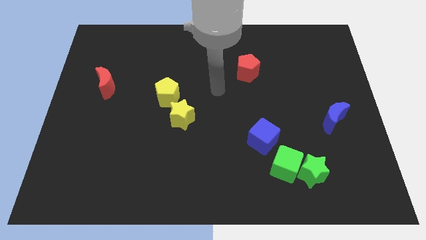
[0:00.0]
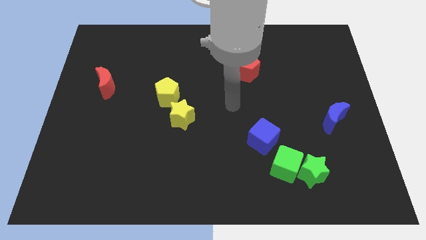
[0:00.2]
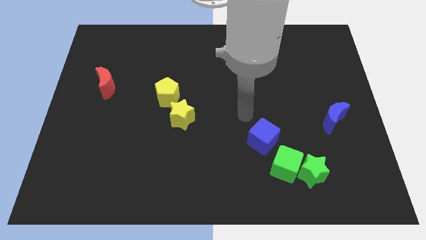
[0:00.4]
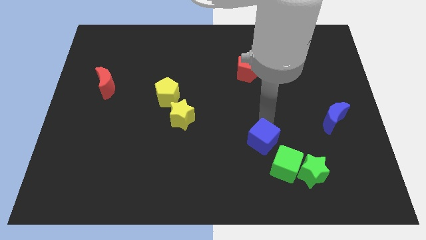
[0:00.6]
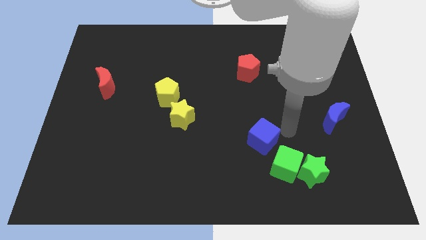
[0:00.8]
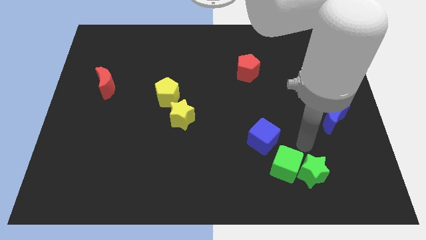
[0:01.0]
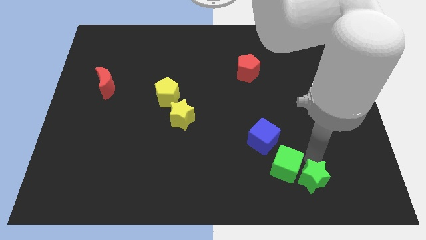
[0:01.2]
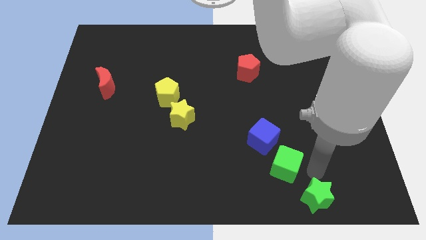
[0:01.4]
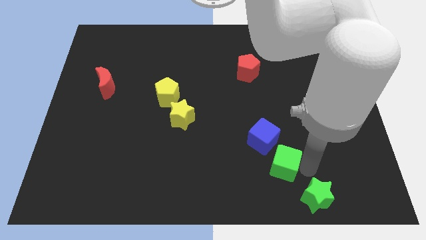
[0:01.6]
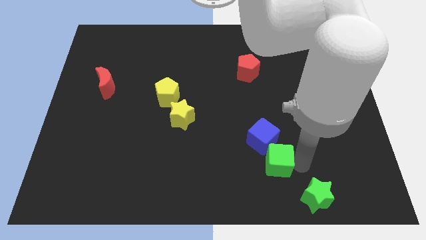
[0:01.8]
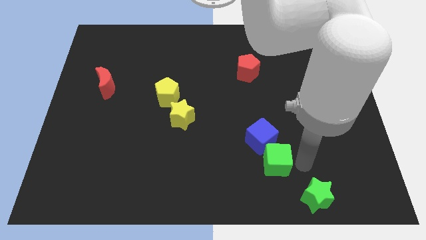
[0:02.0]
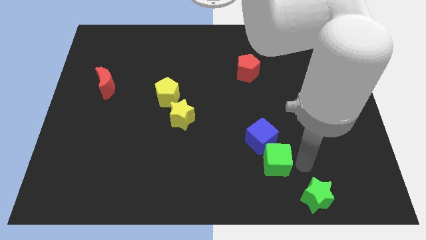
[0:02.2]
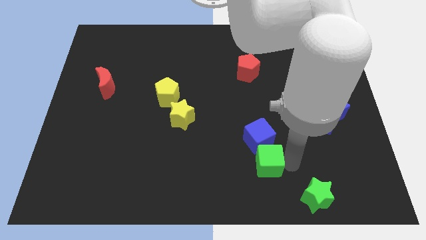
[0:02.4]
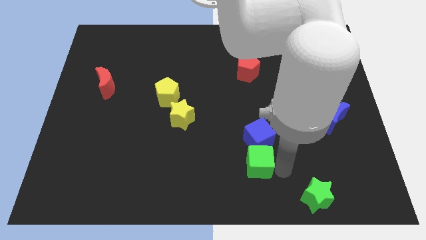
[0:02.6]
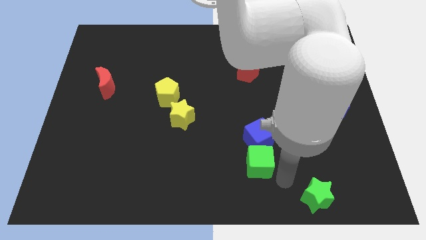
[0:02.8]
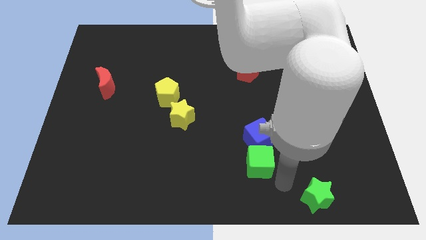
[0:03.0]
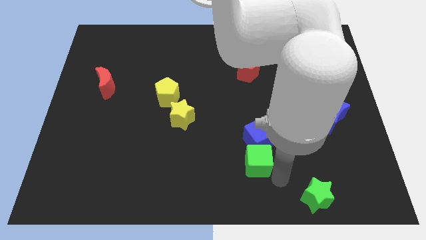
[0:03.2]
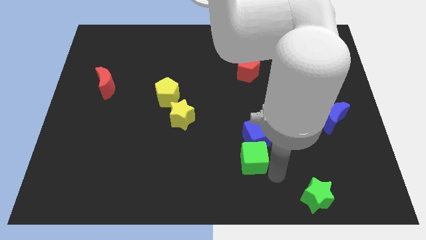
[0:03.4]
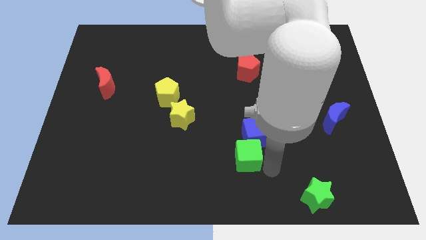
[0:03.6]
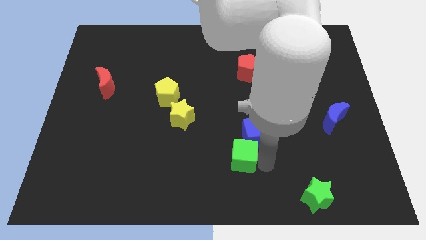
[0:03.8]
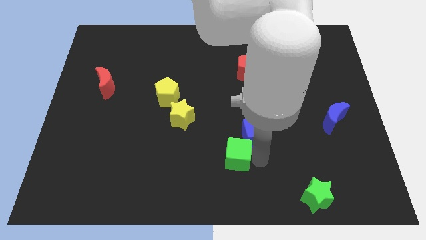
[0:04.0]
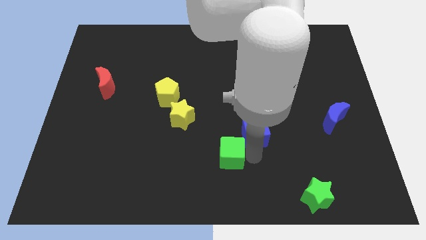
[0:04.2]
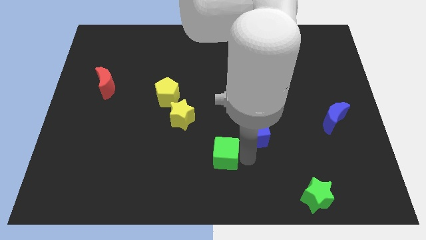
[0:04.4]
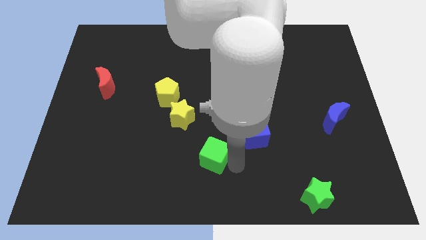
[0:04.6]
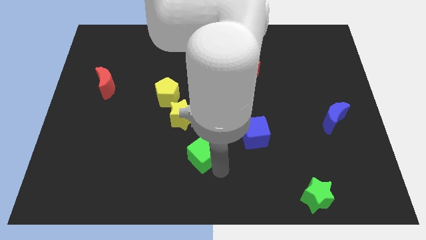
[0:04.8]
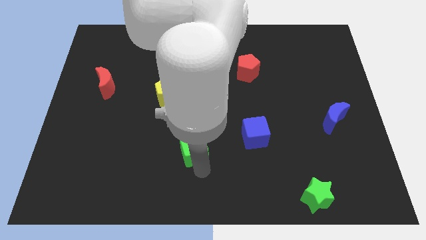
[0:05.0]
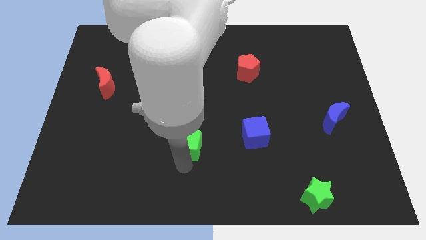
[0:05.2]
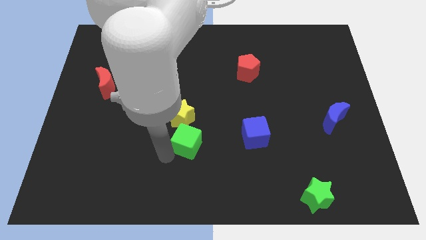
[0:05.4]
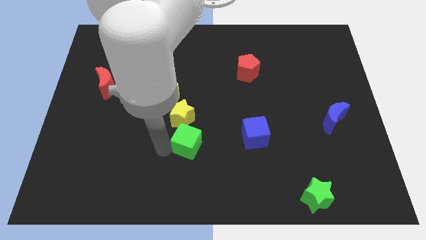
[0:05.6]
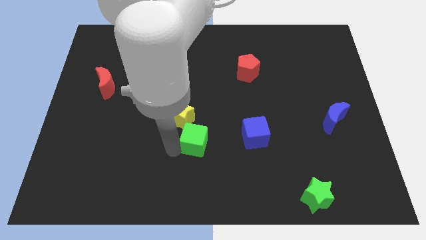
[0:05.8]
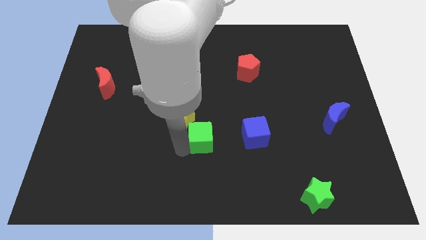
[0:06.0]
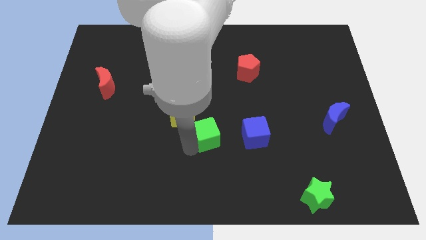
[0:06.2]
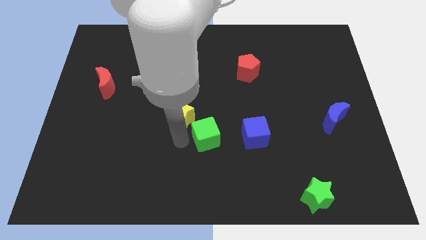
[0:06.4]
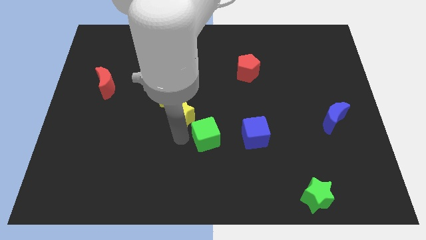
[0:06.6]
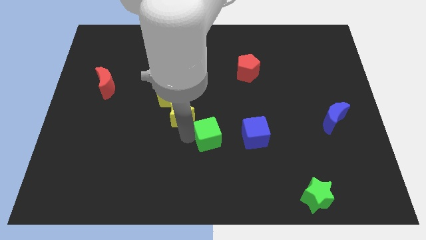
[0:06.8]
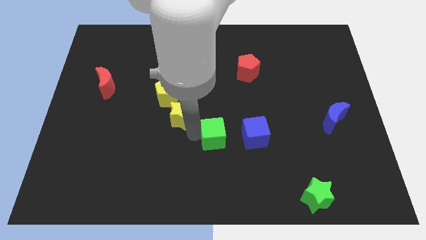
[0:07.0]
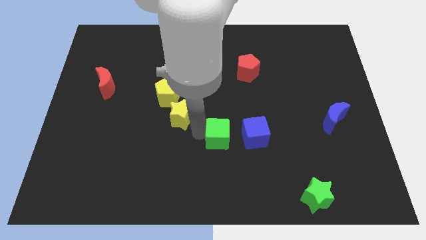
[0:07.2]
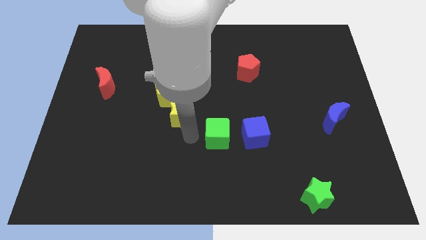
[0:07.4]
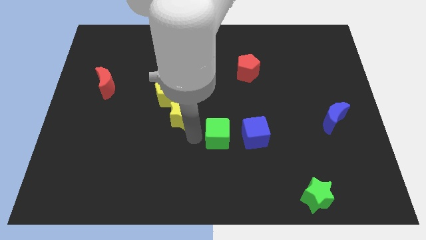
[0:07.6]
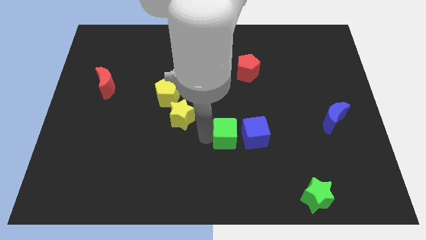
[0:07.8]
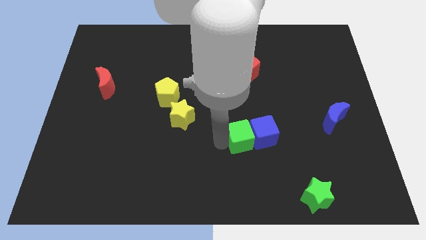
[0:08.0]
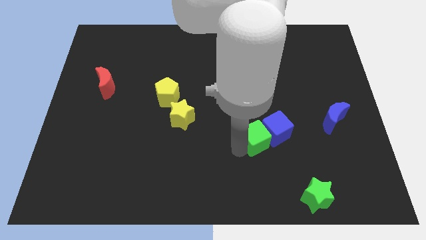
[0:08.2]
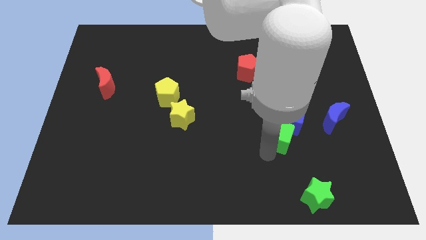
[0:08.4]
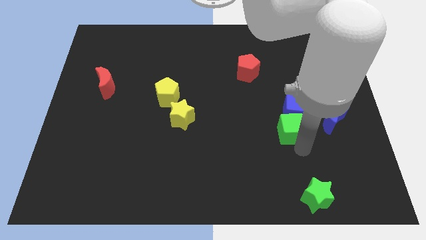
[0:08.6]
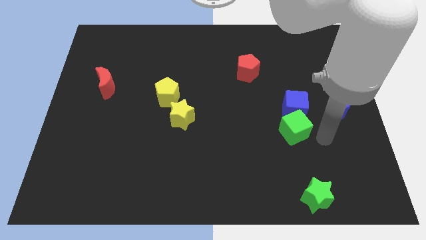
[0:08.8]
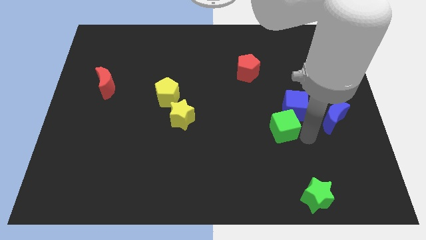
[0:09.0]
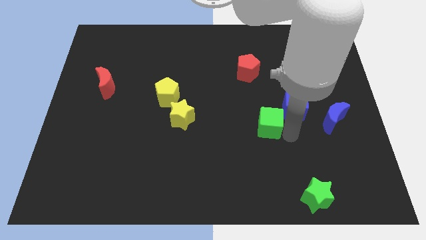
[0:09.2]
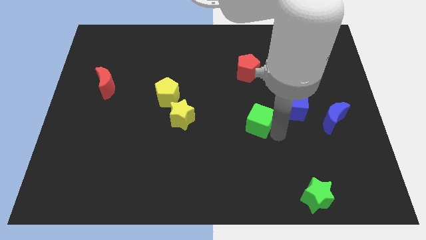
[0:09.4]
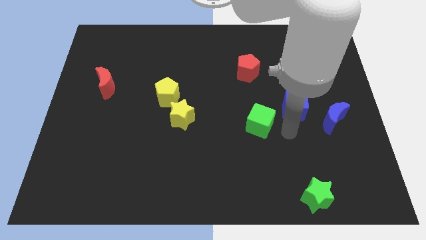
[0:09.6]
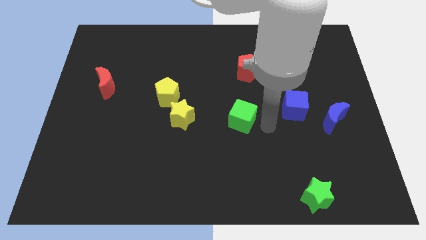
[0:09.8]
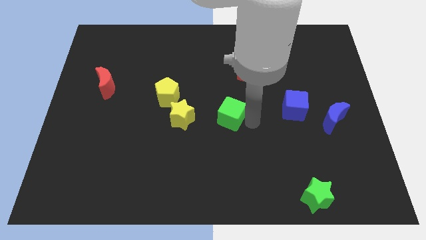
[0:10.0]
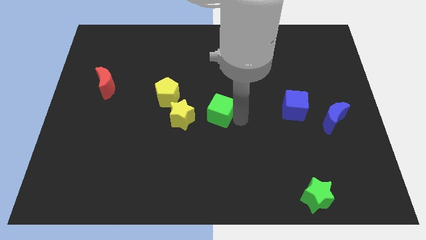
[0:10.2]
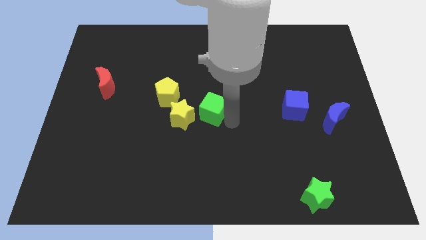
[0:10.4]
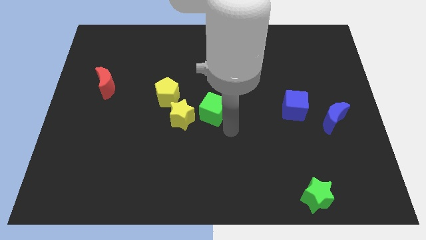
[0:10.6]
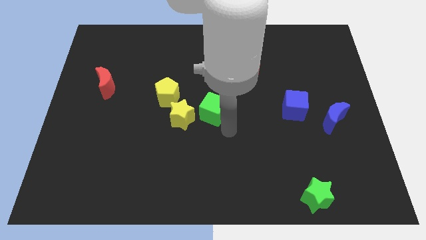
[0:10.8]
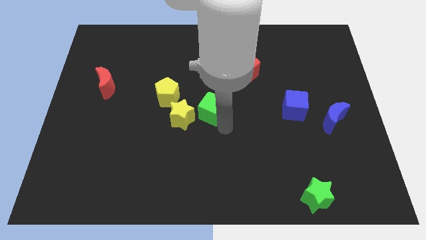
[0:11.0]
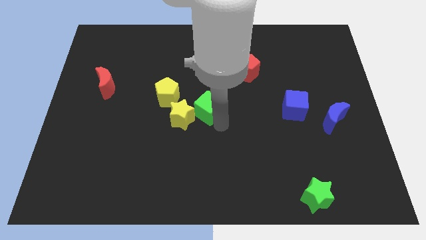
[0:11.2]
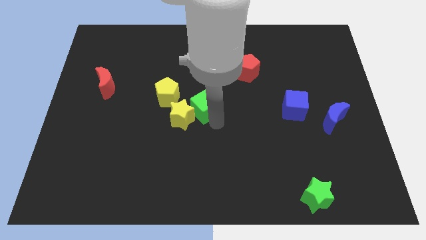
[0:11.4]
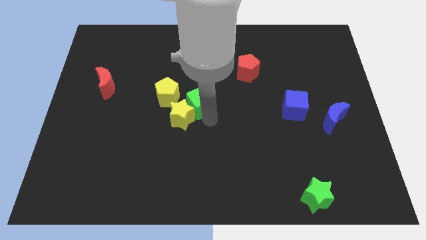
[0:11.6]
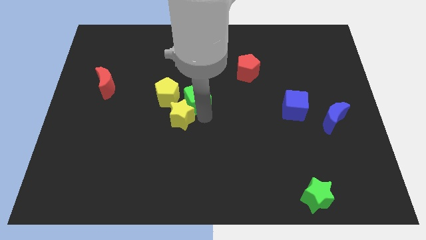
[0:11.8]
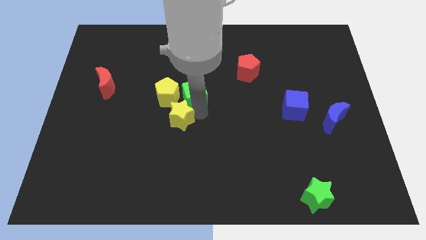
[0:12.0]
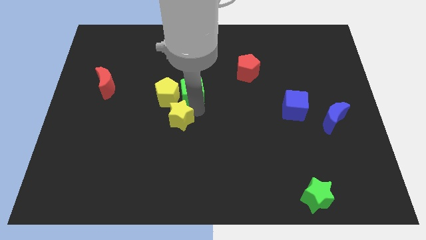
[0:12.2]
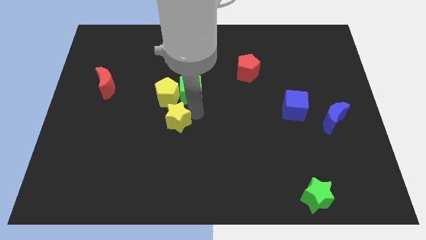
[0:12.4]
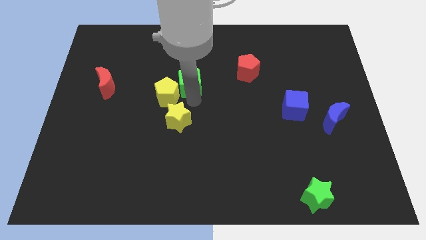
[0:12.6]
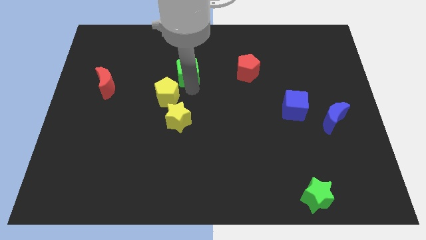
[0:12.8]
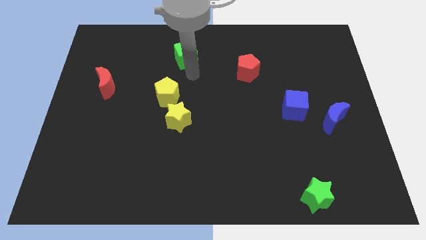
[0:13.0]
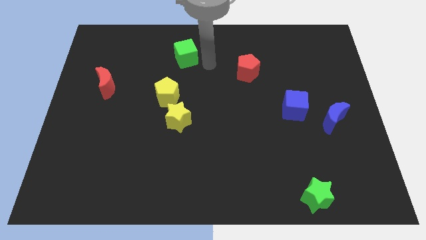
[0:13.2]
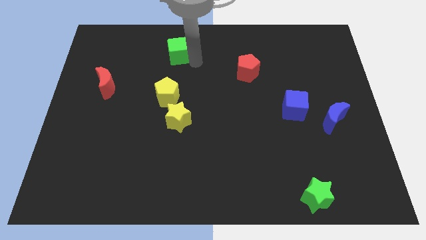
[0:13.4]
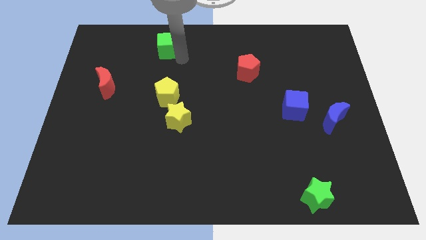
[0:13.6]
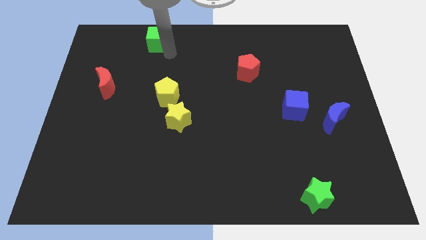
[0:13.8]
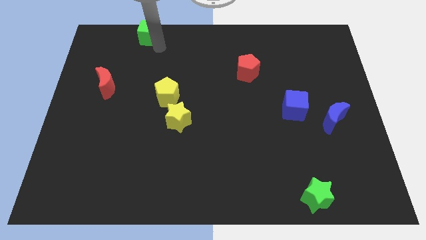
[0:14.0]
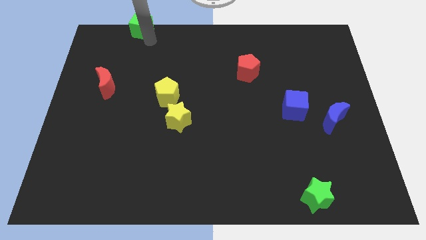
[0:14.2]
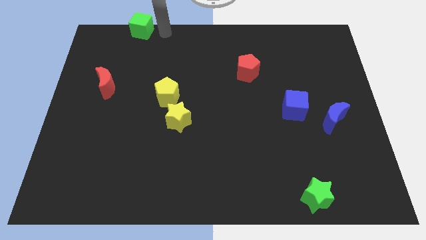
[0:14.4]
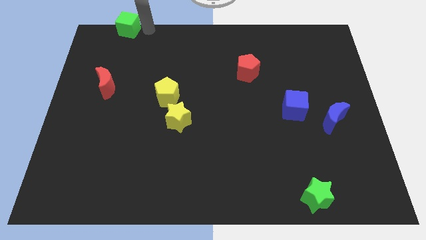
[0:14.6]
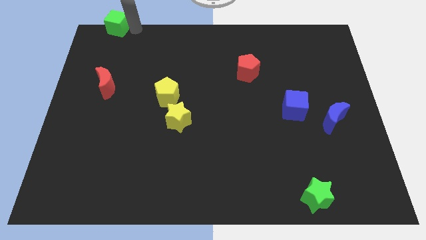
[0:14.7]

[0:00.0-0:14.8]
slide the green cube to the top left of the board
